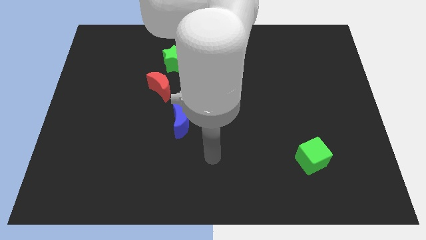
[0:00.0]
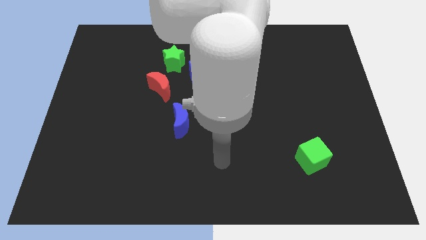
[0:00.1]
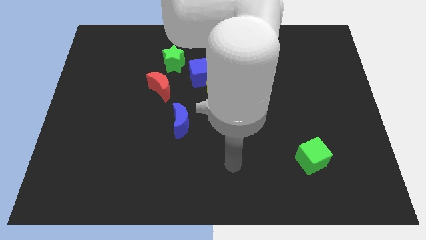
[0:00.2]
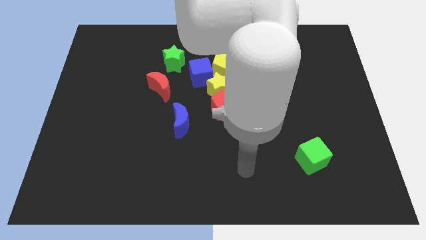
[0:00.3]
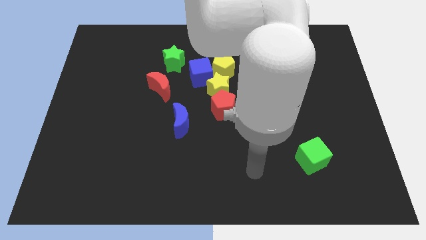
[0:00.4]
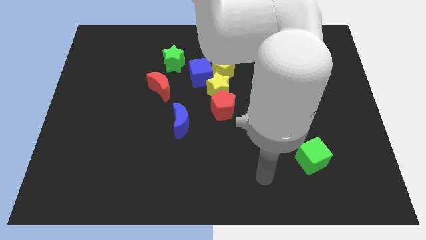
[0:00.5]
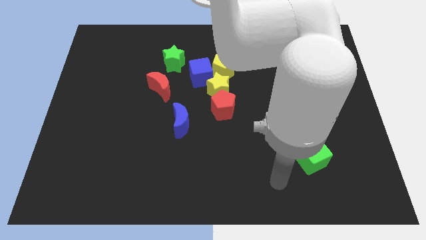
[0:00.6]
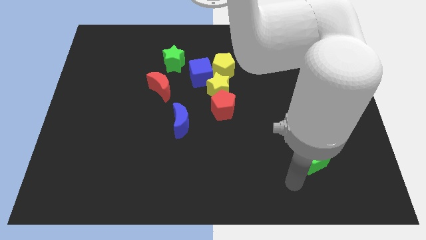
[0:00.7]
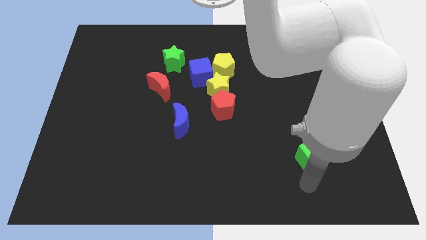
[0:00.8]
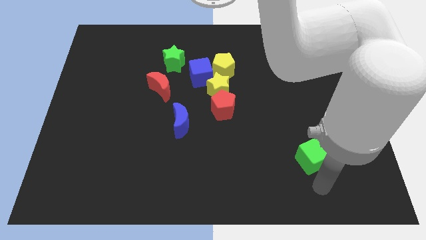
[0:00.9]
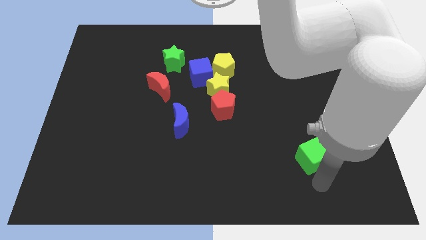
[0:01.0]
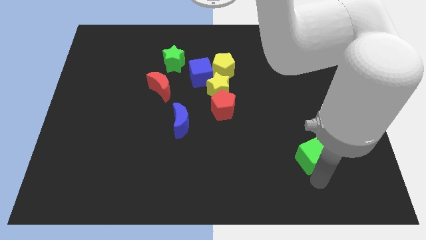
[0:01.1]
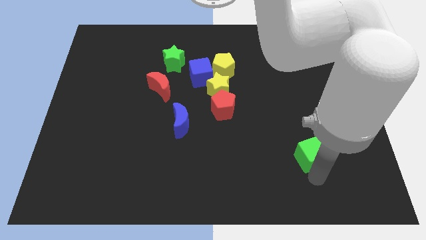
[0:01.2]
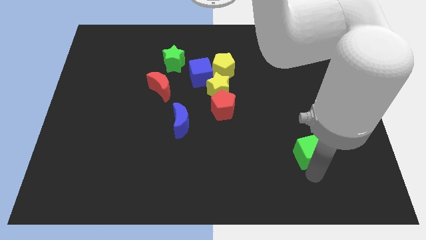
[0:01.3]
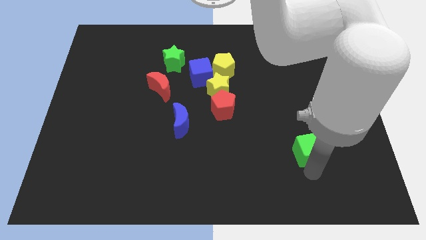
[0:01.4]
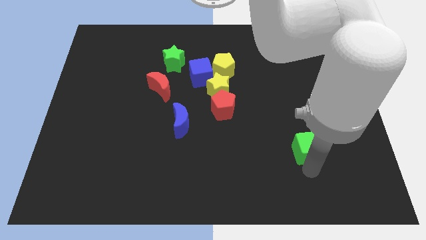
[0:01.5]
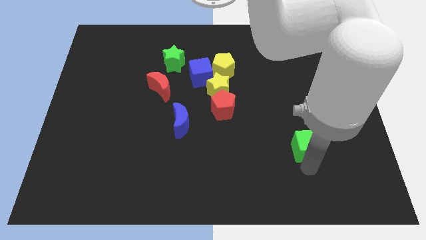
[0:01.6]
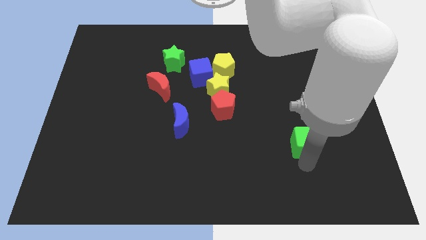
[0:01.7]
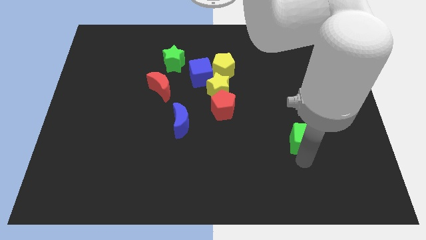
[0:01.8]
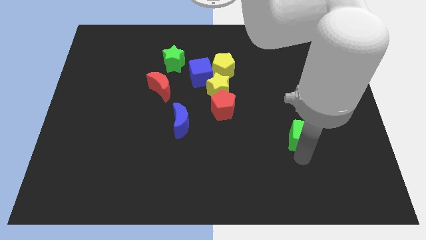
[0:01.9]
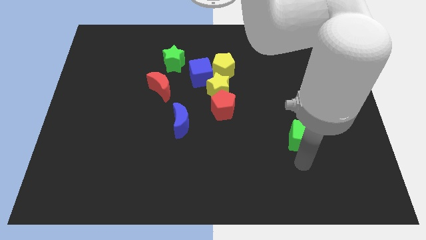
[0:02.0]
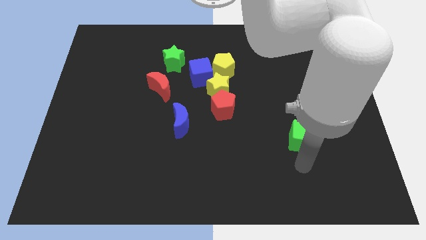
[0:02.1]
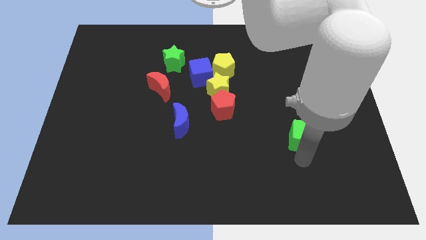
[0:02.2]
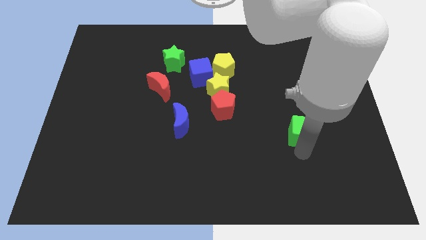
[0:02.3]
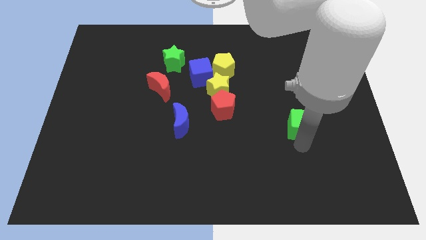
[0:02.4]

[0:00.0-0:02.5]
slightly push the green cube upwards

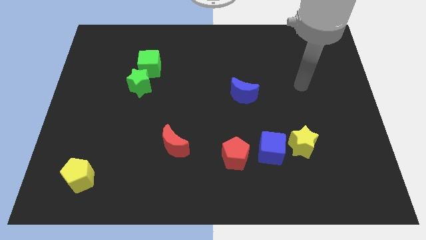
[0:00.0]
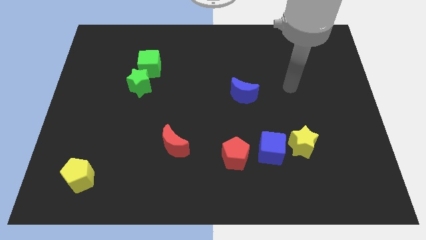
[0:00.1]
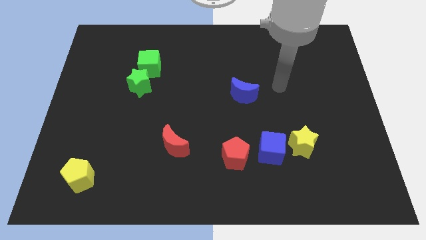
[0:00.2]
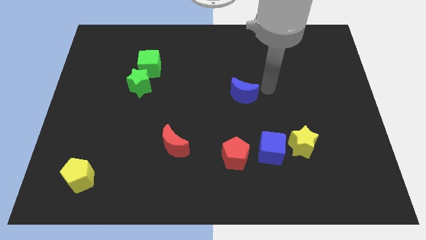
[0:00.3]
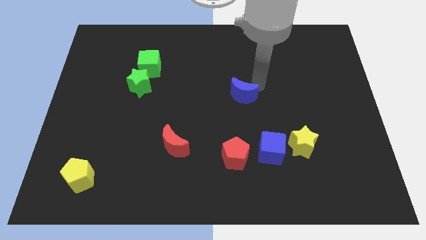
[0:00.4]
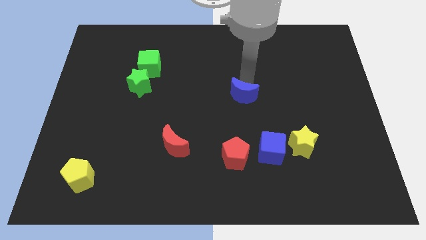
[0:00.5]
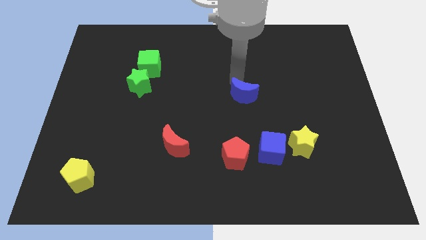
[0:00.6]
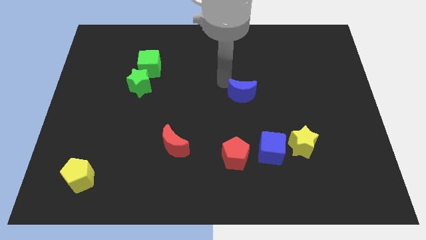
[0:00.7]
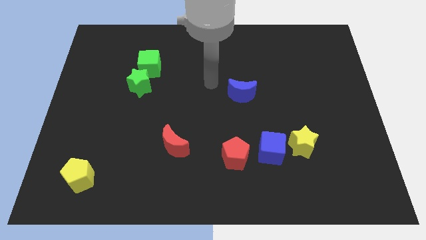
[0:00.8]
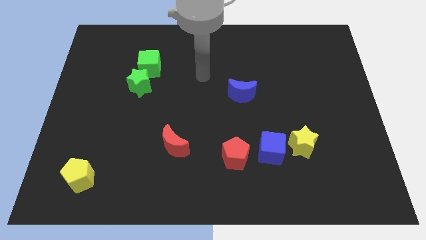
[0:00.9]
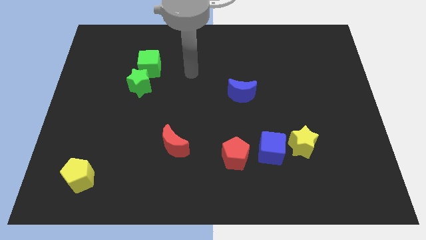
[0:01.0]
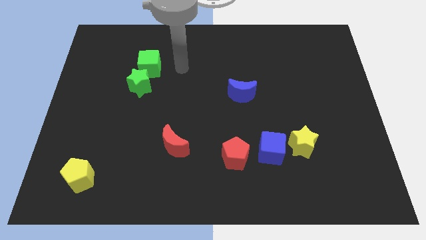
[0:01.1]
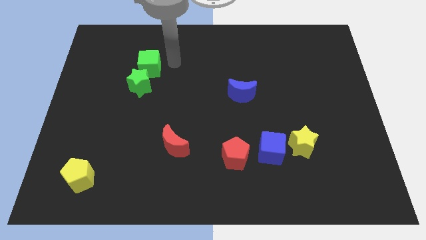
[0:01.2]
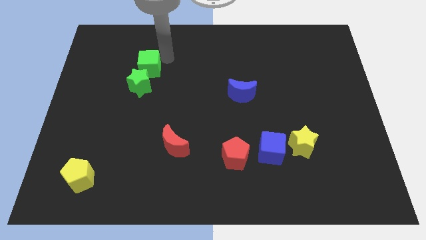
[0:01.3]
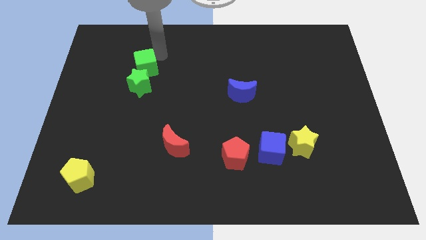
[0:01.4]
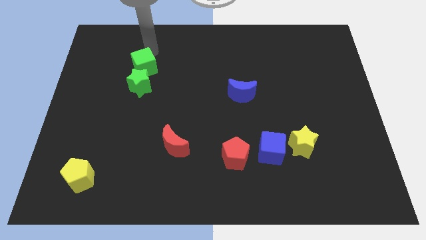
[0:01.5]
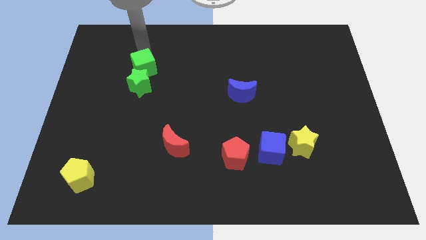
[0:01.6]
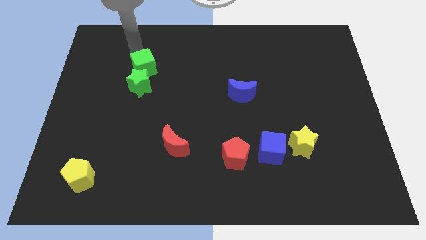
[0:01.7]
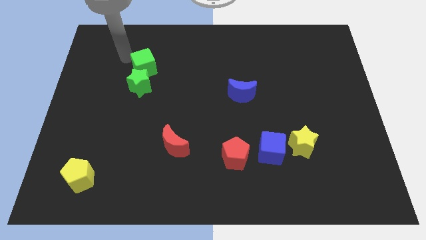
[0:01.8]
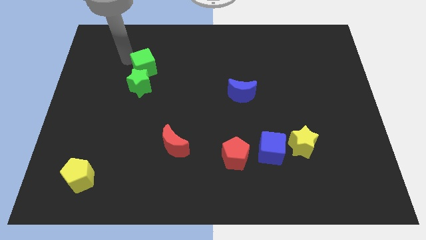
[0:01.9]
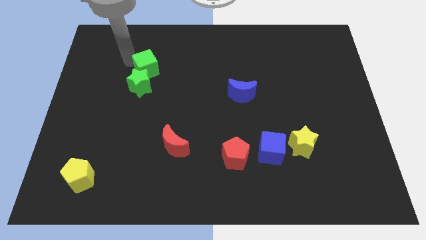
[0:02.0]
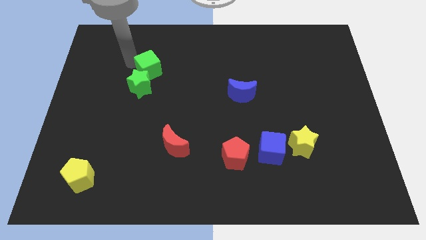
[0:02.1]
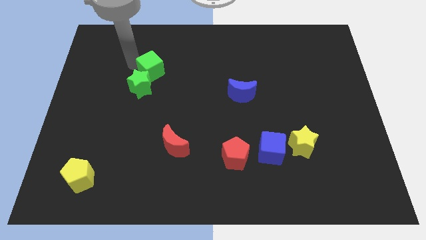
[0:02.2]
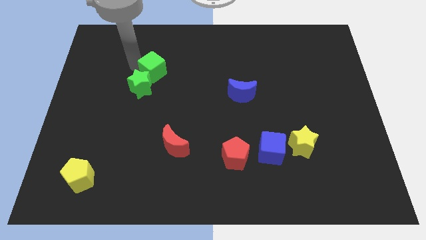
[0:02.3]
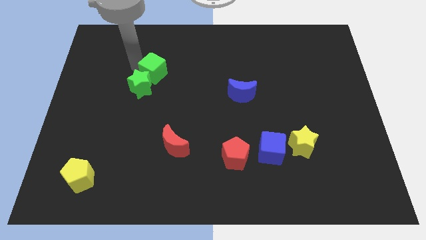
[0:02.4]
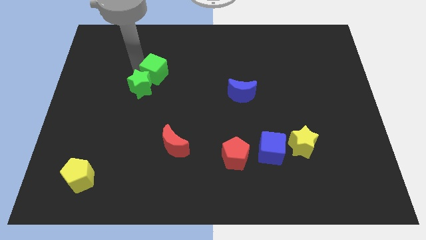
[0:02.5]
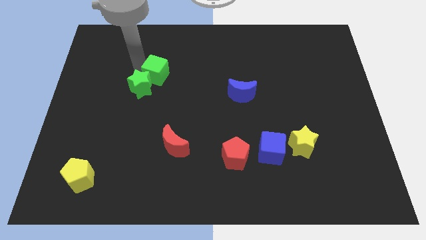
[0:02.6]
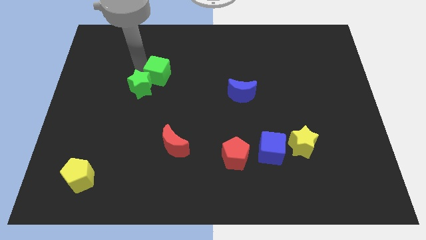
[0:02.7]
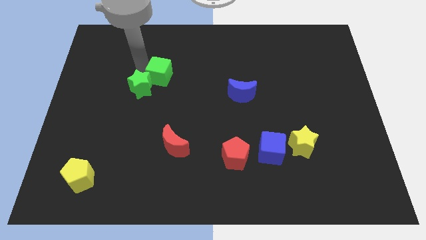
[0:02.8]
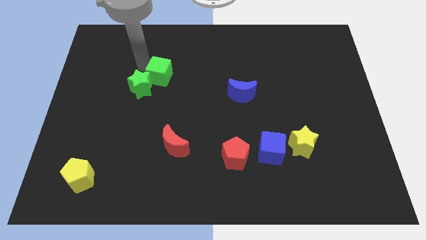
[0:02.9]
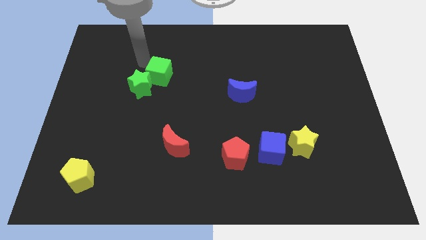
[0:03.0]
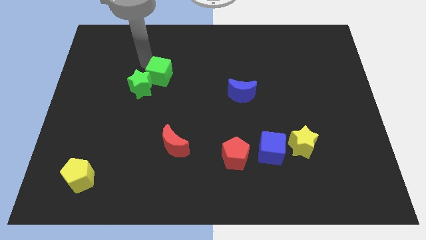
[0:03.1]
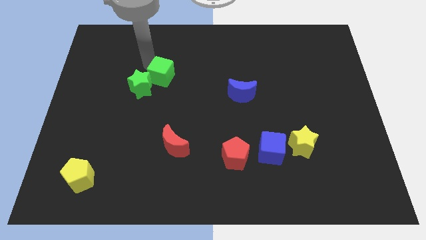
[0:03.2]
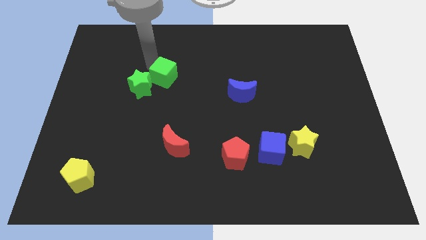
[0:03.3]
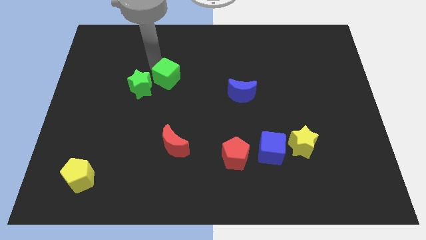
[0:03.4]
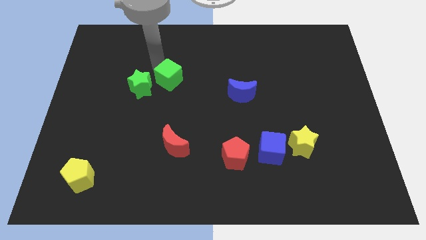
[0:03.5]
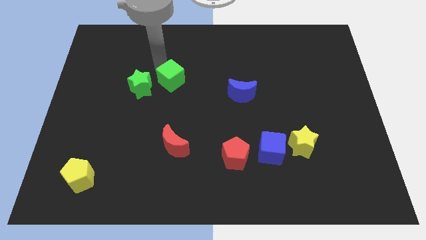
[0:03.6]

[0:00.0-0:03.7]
push the green cube downwards and right diagonally somewhat

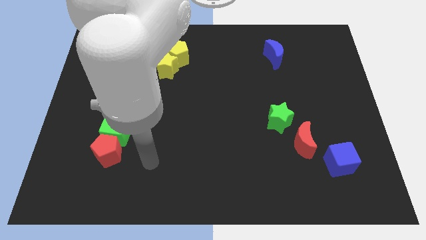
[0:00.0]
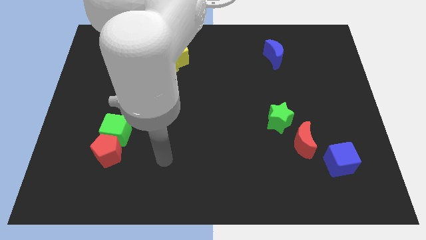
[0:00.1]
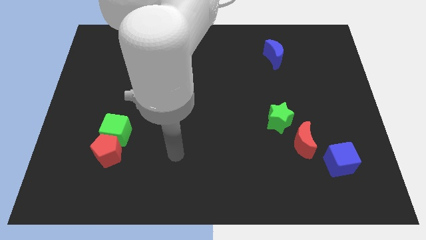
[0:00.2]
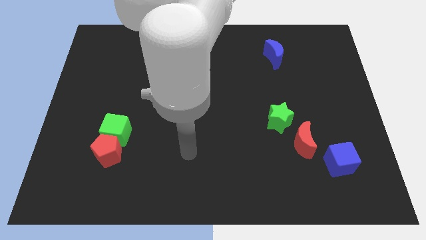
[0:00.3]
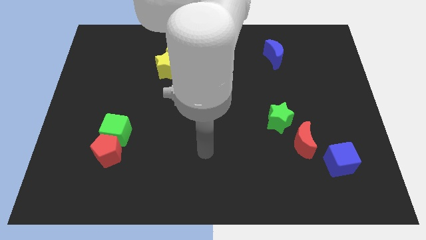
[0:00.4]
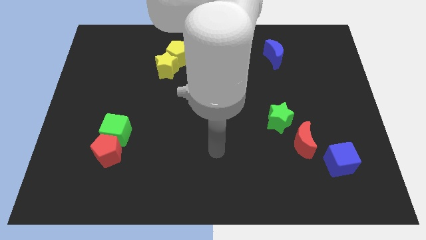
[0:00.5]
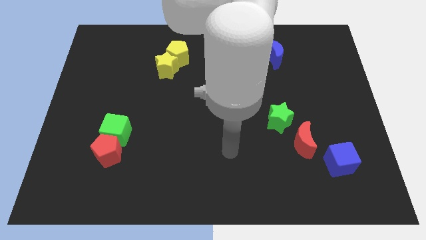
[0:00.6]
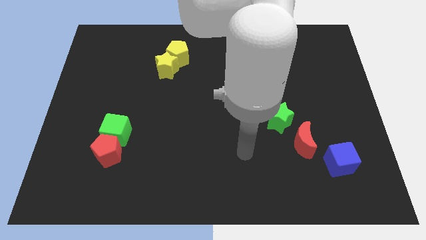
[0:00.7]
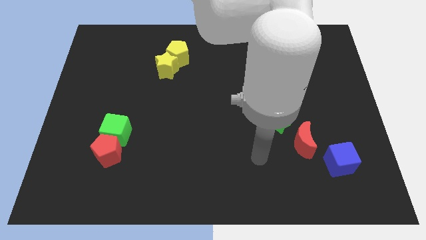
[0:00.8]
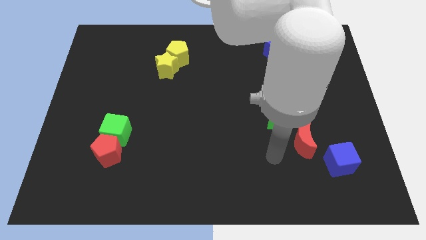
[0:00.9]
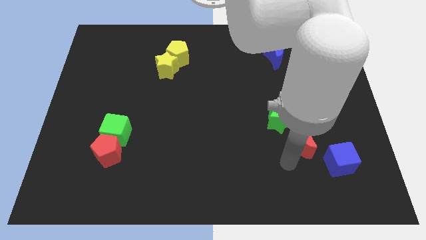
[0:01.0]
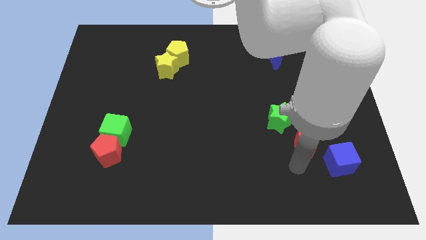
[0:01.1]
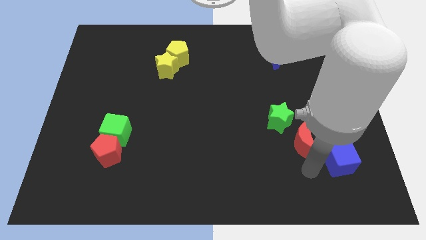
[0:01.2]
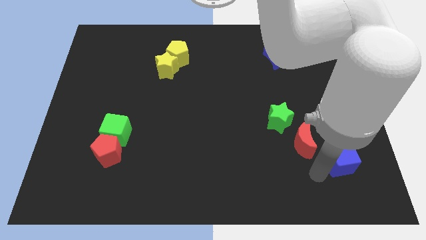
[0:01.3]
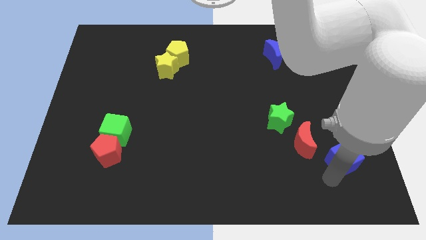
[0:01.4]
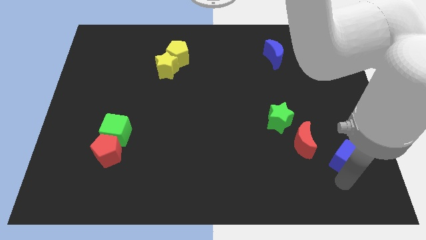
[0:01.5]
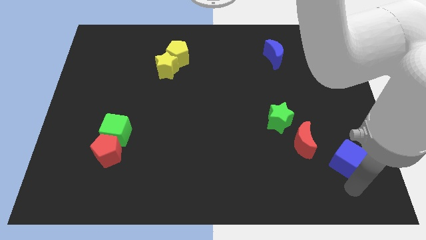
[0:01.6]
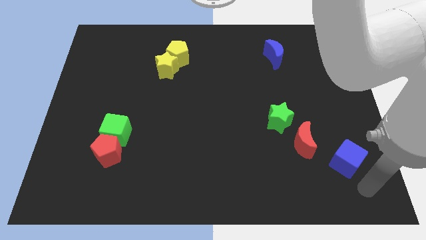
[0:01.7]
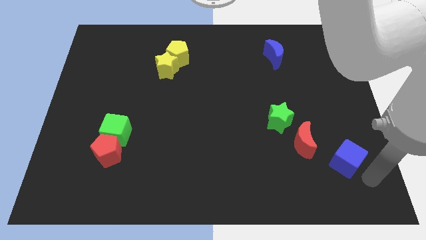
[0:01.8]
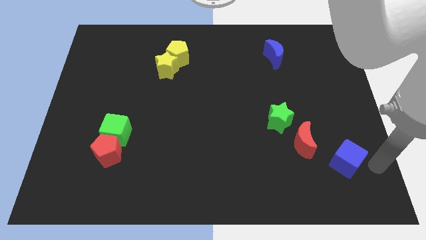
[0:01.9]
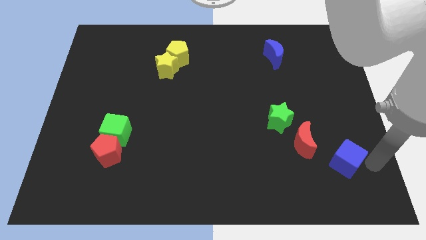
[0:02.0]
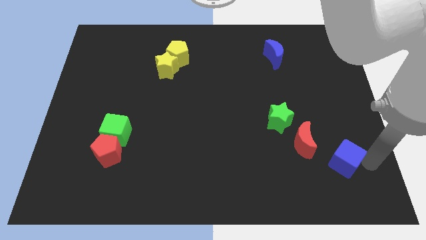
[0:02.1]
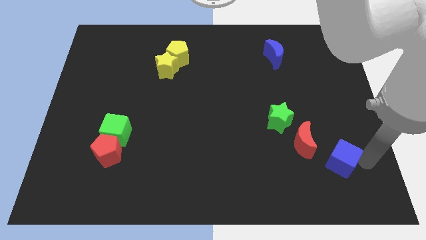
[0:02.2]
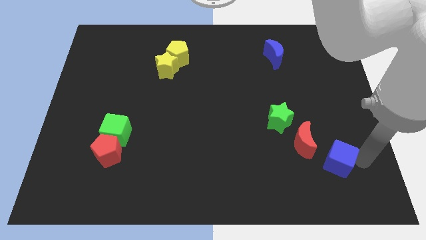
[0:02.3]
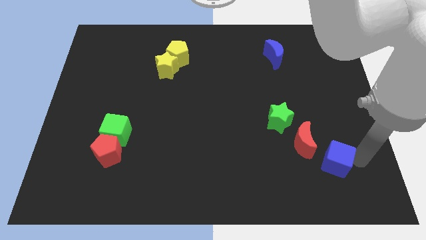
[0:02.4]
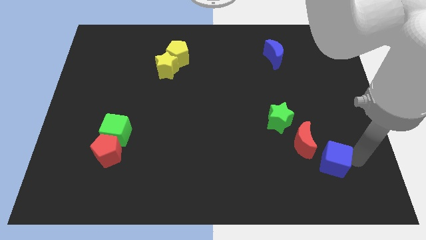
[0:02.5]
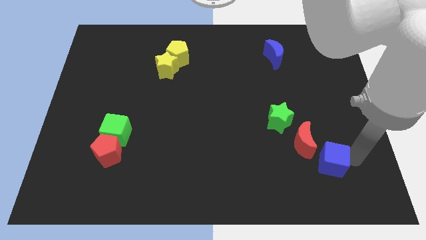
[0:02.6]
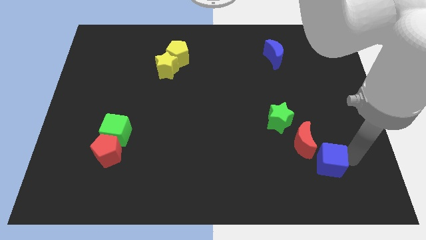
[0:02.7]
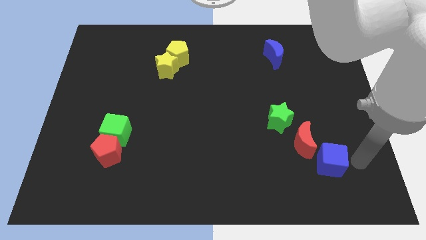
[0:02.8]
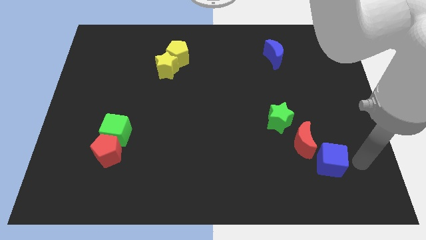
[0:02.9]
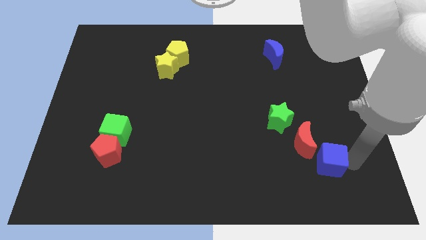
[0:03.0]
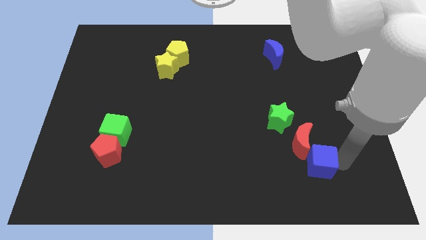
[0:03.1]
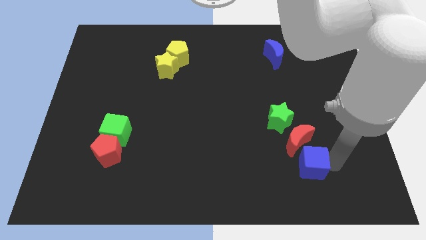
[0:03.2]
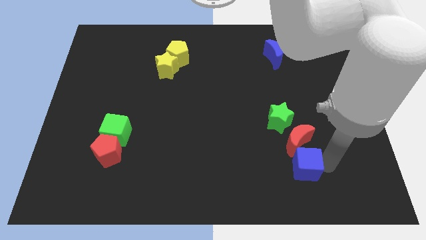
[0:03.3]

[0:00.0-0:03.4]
slightly push the blue cube left
